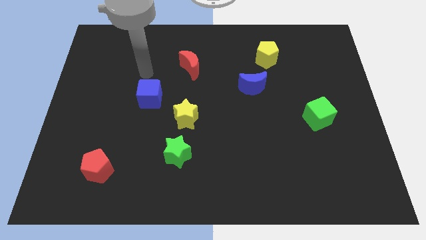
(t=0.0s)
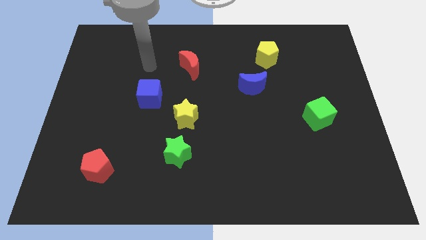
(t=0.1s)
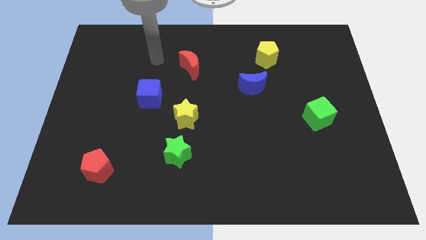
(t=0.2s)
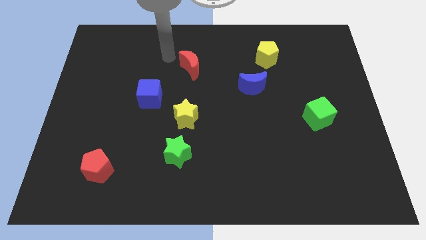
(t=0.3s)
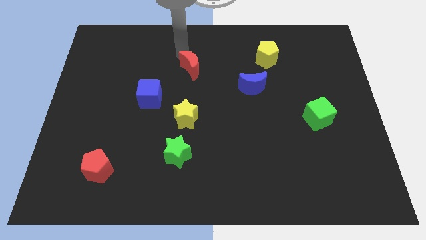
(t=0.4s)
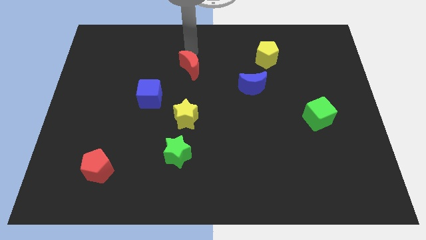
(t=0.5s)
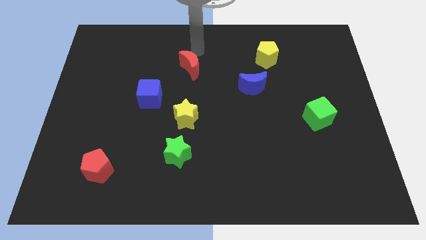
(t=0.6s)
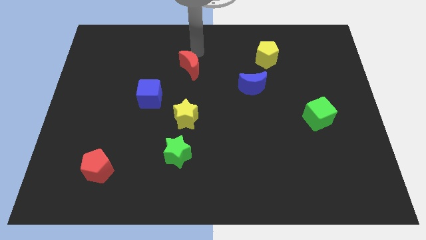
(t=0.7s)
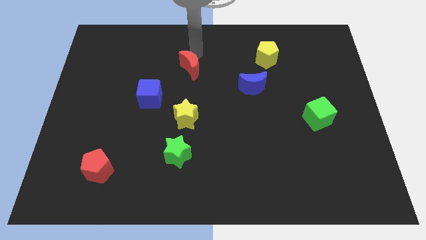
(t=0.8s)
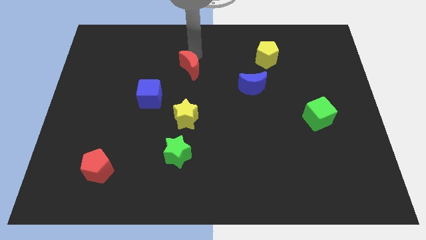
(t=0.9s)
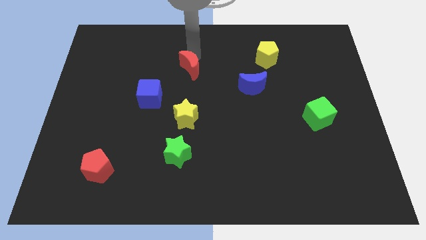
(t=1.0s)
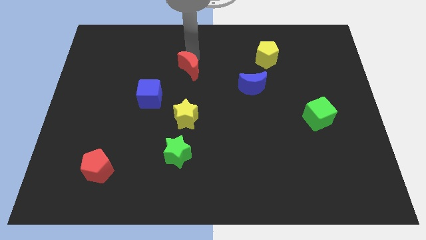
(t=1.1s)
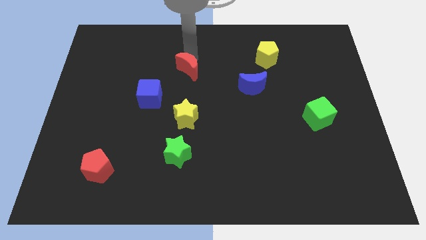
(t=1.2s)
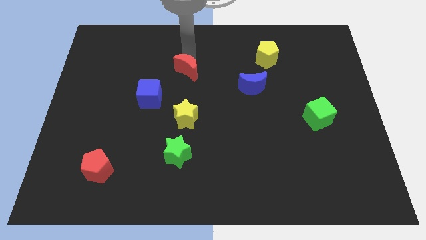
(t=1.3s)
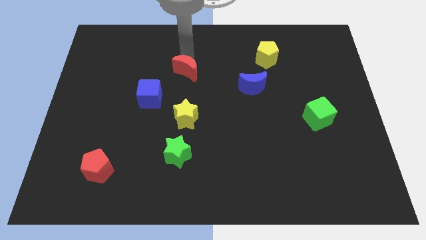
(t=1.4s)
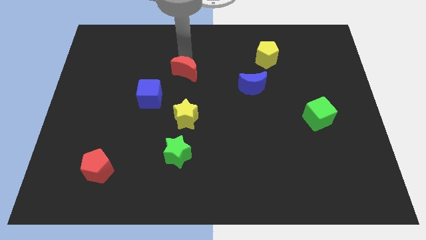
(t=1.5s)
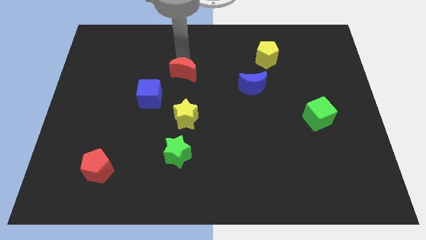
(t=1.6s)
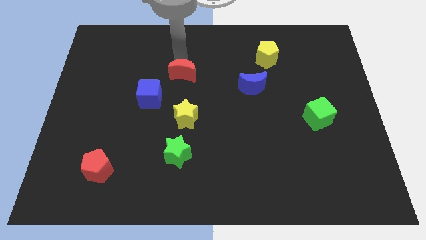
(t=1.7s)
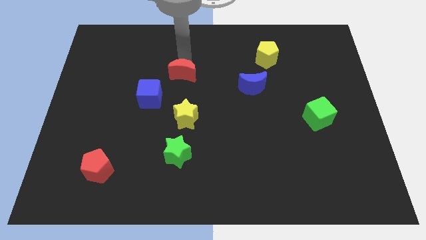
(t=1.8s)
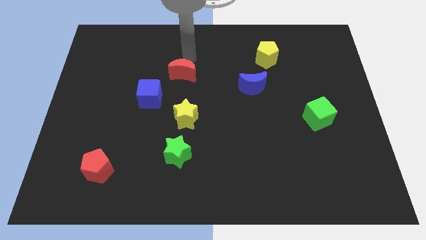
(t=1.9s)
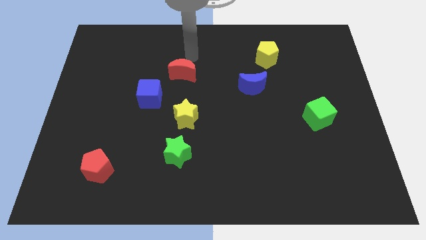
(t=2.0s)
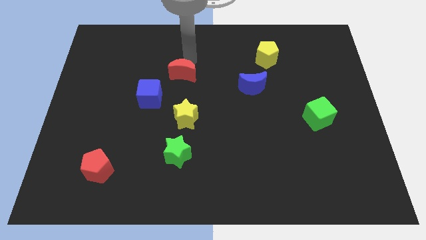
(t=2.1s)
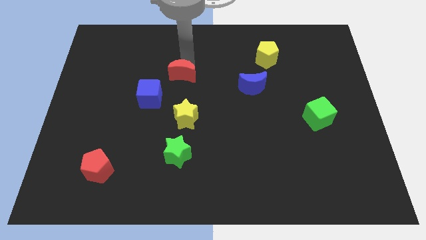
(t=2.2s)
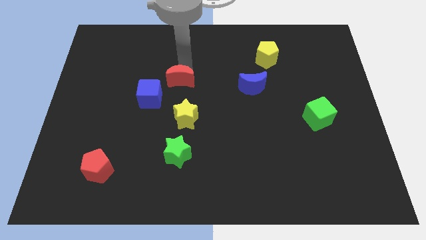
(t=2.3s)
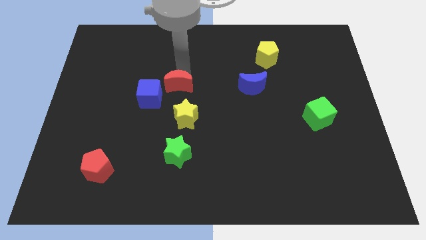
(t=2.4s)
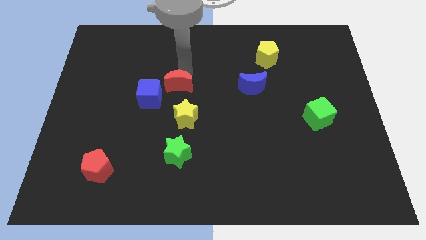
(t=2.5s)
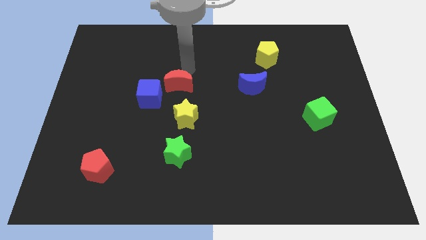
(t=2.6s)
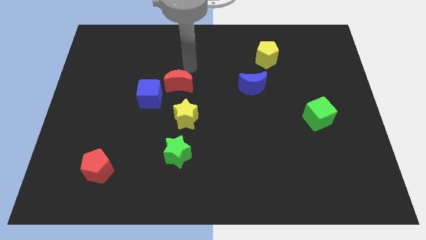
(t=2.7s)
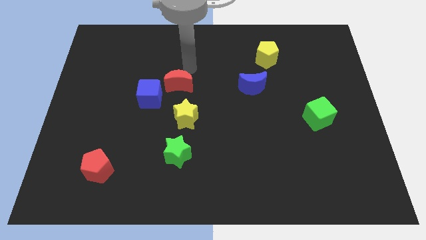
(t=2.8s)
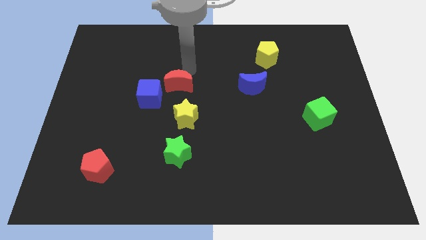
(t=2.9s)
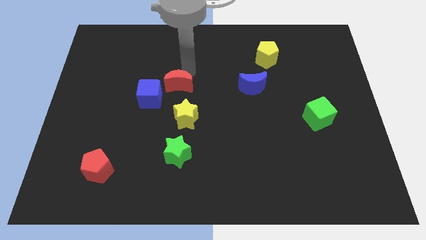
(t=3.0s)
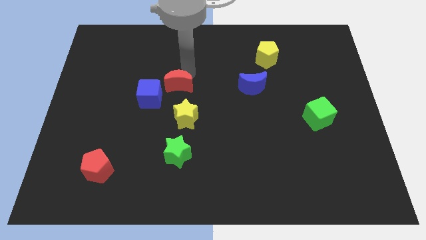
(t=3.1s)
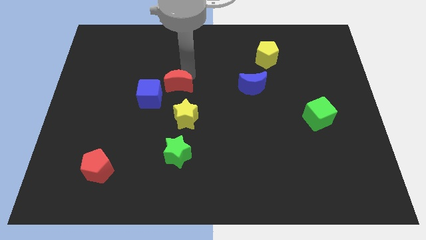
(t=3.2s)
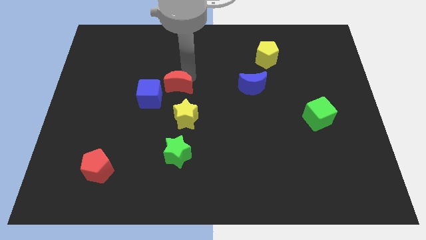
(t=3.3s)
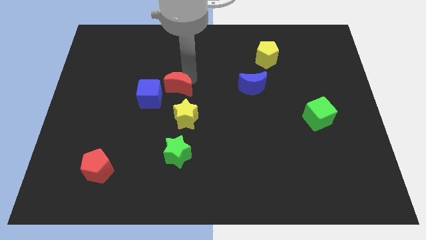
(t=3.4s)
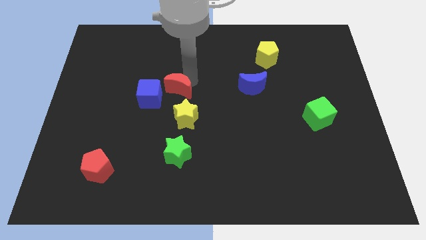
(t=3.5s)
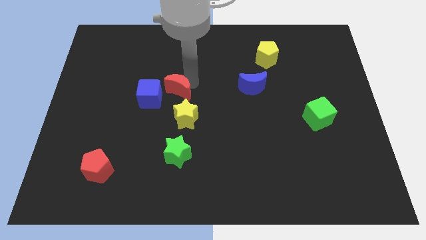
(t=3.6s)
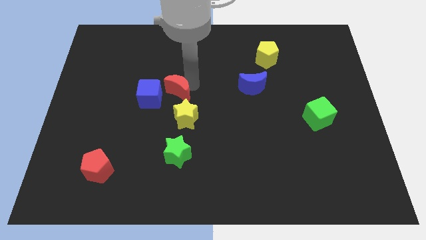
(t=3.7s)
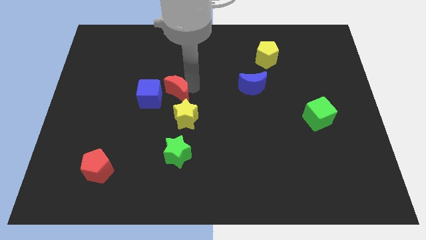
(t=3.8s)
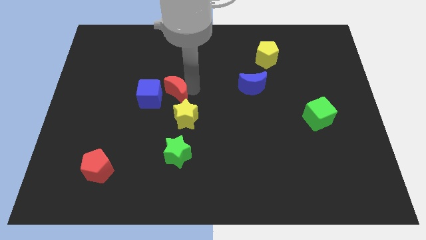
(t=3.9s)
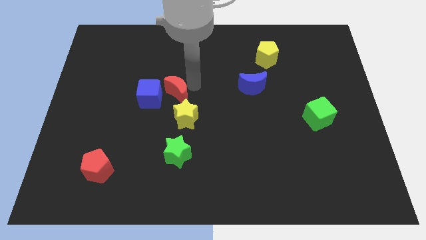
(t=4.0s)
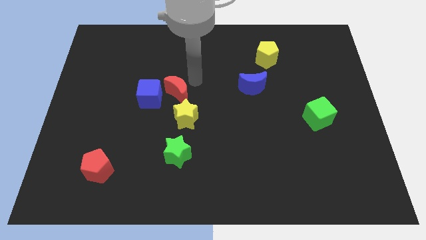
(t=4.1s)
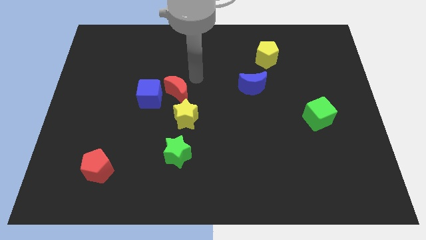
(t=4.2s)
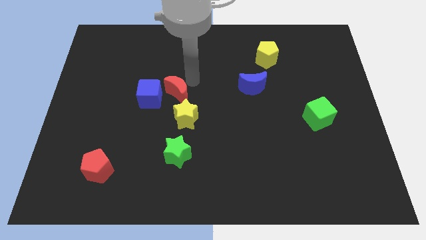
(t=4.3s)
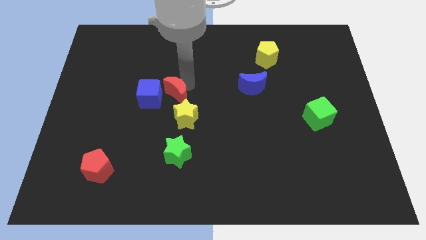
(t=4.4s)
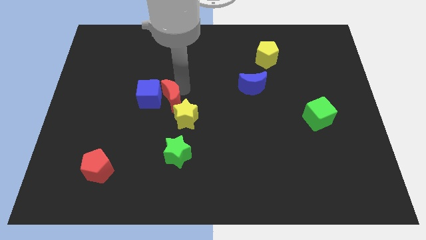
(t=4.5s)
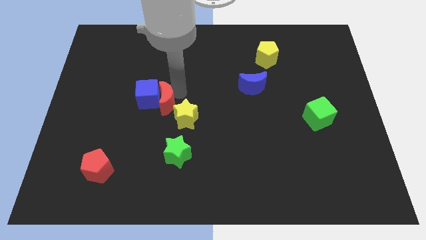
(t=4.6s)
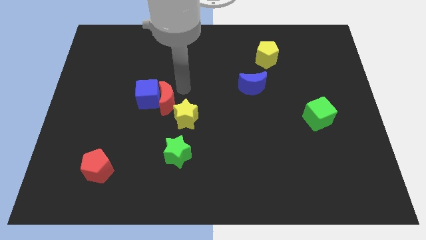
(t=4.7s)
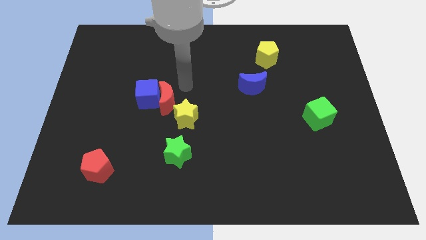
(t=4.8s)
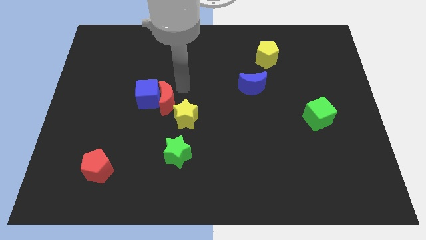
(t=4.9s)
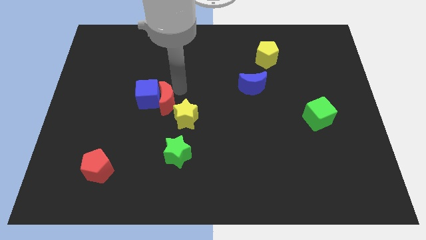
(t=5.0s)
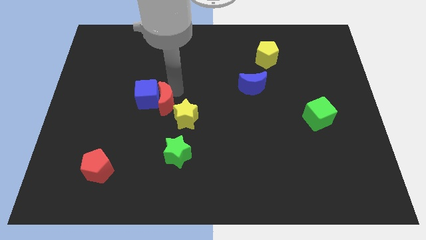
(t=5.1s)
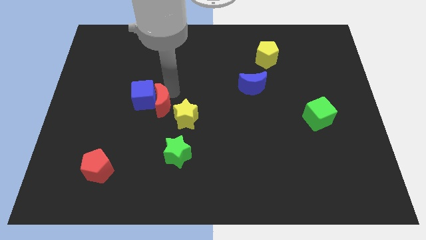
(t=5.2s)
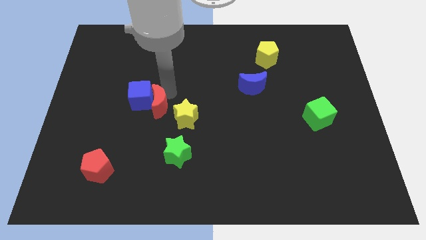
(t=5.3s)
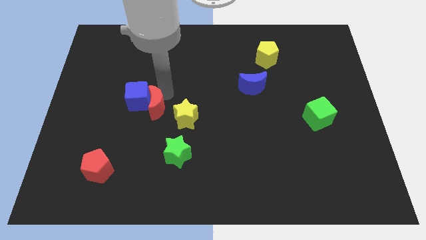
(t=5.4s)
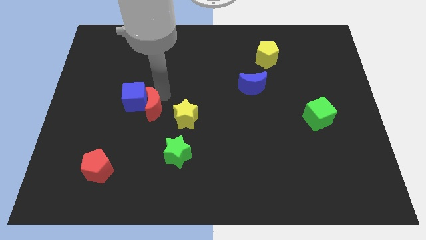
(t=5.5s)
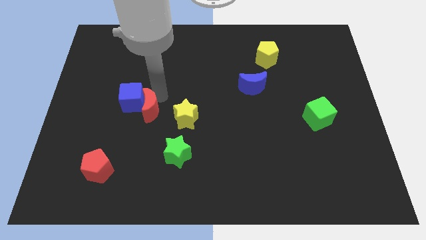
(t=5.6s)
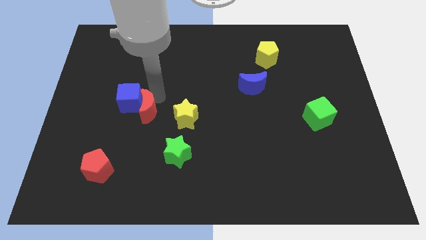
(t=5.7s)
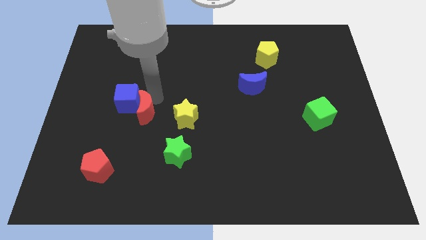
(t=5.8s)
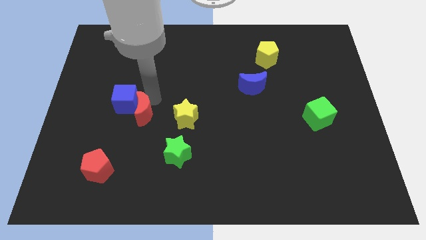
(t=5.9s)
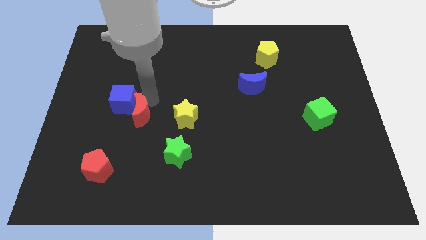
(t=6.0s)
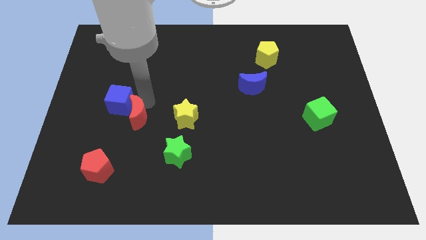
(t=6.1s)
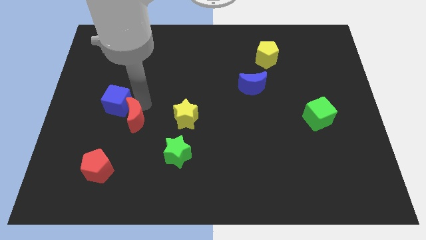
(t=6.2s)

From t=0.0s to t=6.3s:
move the red moon down and to the left diagonally

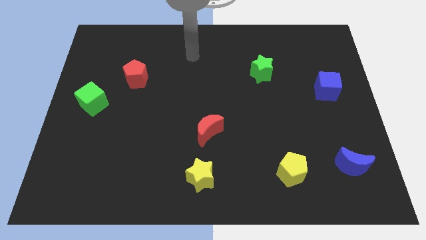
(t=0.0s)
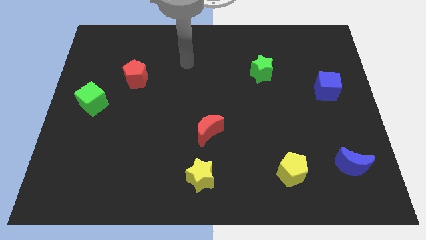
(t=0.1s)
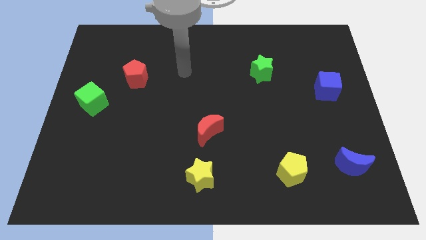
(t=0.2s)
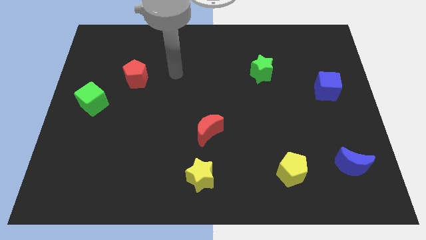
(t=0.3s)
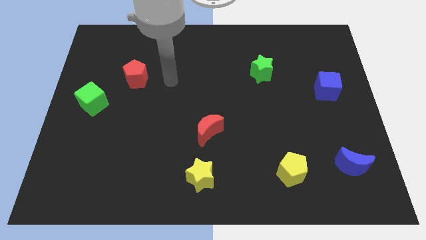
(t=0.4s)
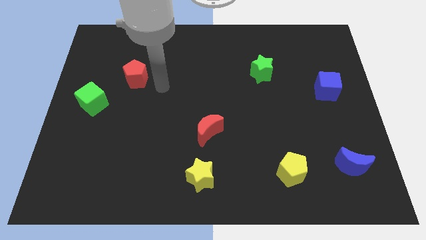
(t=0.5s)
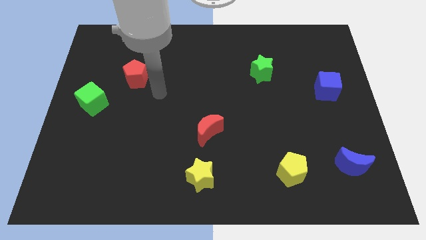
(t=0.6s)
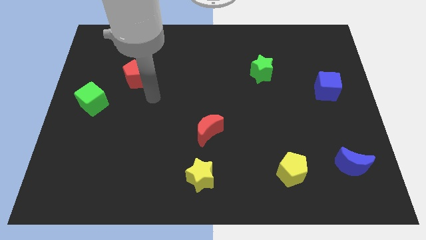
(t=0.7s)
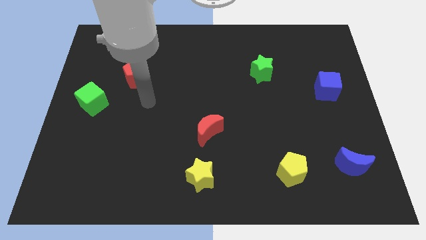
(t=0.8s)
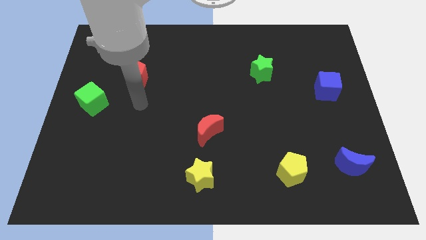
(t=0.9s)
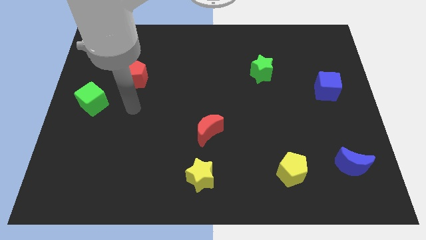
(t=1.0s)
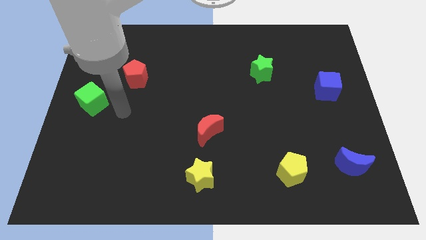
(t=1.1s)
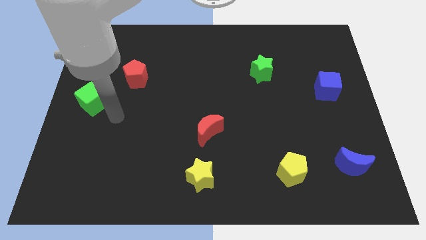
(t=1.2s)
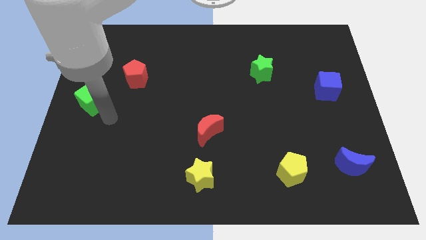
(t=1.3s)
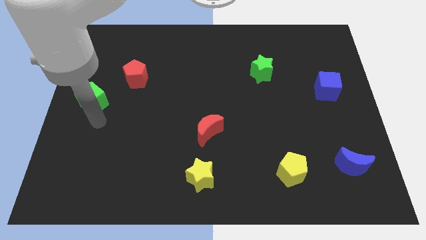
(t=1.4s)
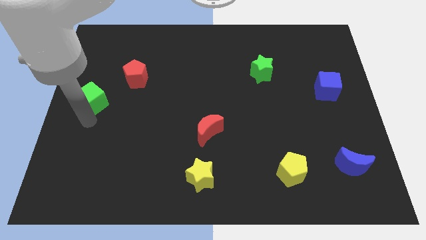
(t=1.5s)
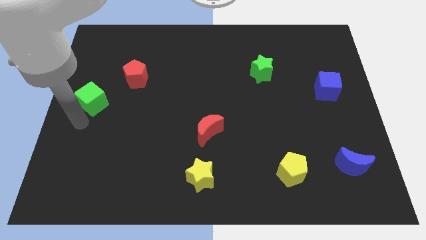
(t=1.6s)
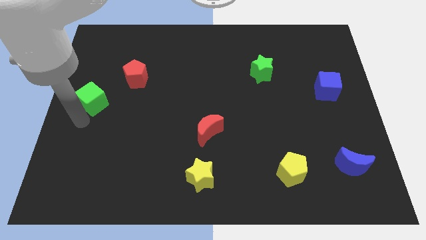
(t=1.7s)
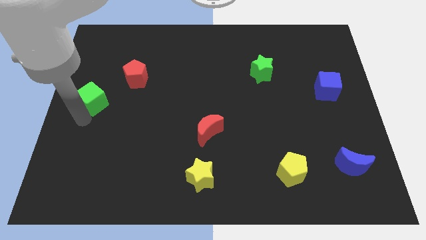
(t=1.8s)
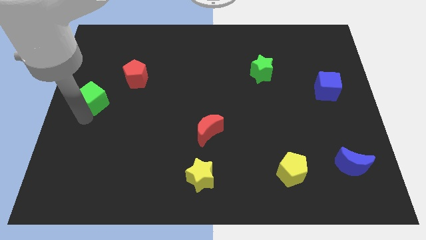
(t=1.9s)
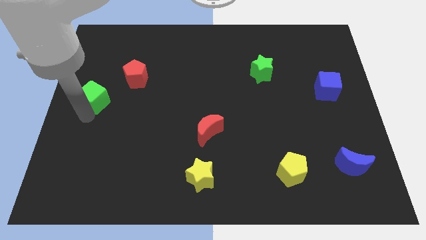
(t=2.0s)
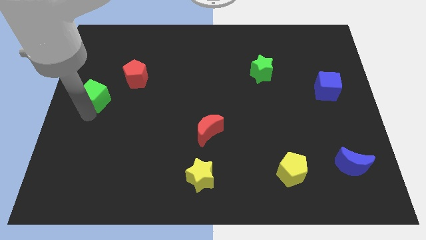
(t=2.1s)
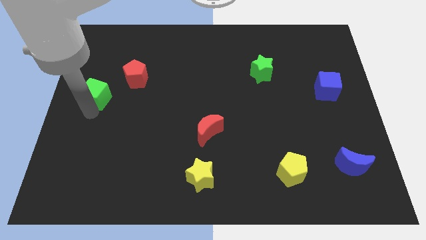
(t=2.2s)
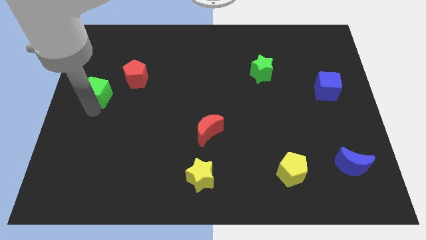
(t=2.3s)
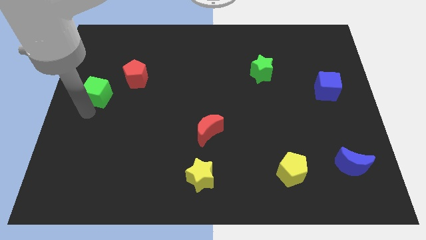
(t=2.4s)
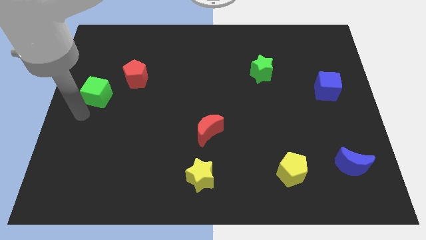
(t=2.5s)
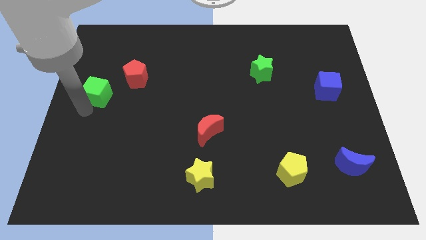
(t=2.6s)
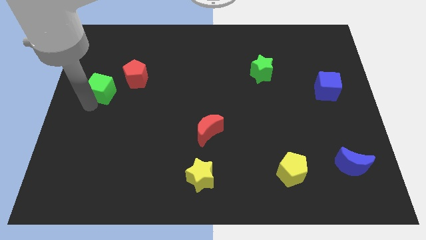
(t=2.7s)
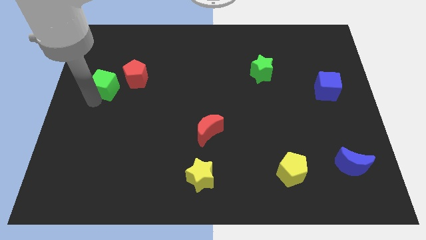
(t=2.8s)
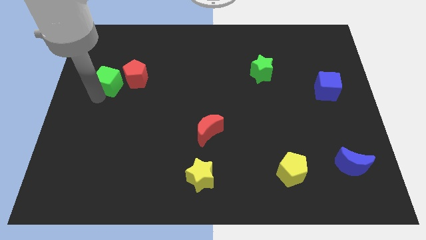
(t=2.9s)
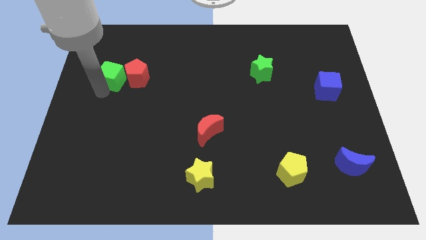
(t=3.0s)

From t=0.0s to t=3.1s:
push the green cube upwards and right diagonally a little
